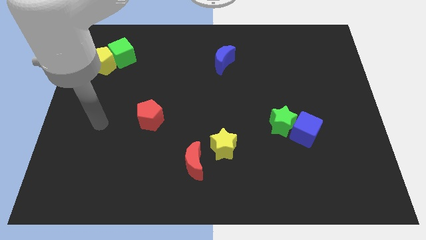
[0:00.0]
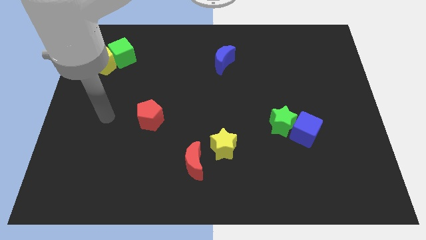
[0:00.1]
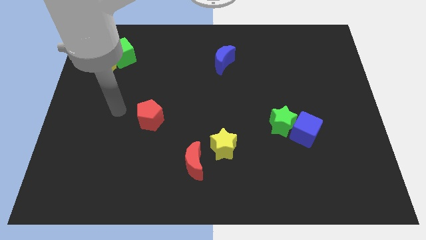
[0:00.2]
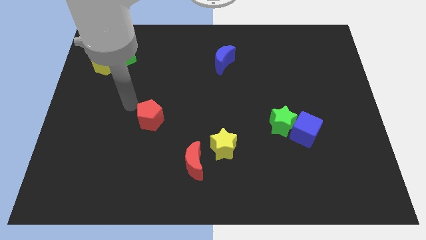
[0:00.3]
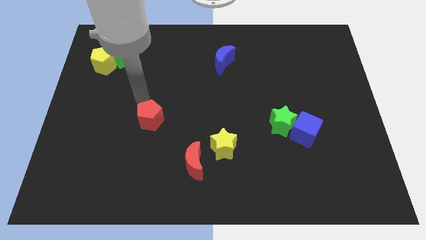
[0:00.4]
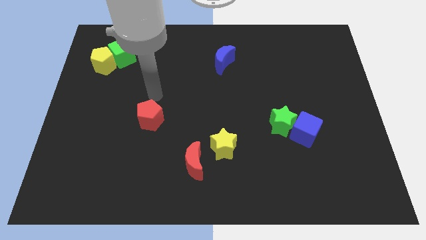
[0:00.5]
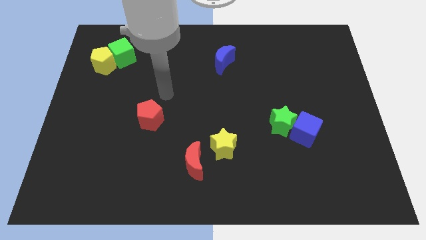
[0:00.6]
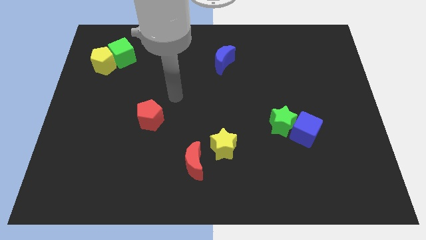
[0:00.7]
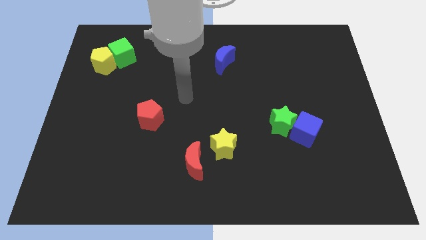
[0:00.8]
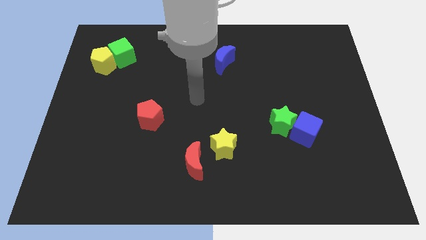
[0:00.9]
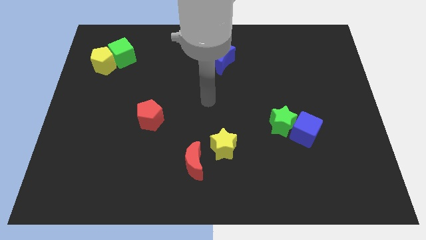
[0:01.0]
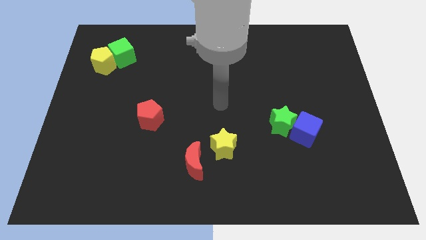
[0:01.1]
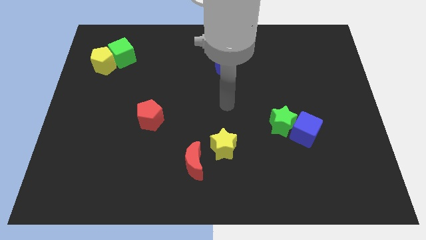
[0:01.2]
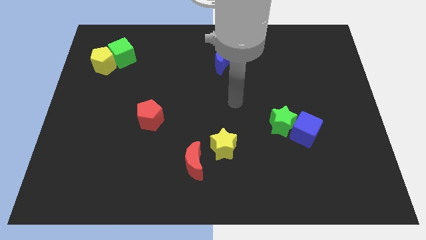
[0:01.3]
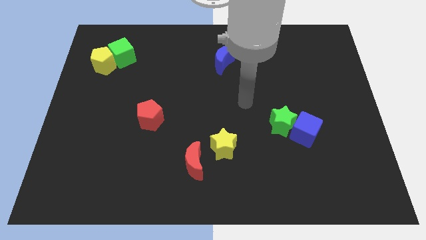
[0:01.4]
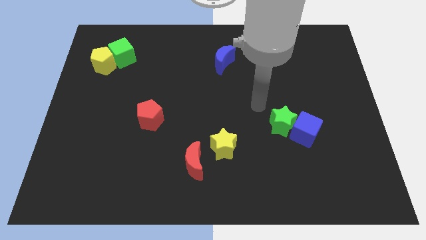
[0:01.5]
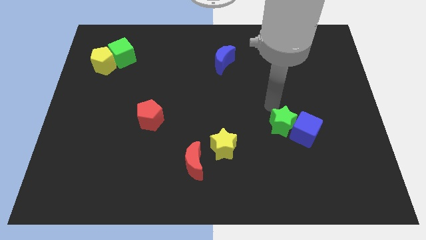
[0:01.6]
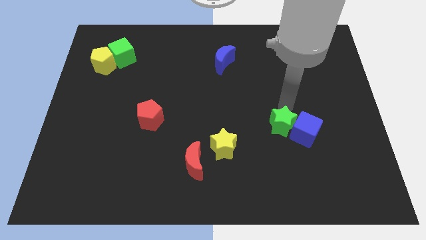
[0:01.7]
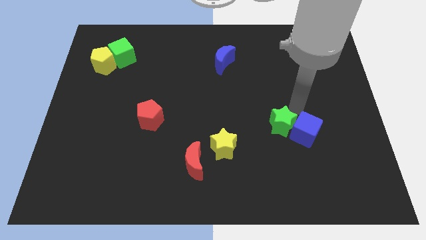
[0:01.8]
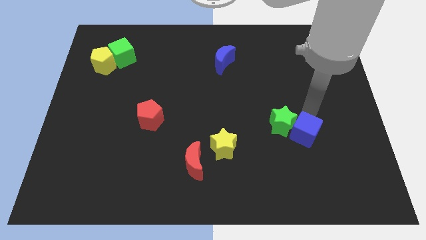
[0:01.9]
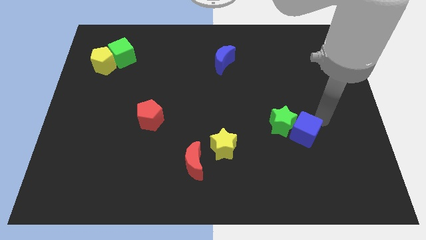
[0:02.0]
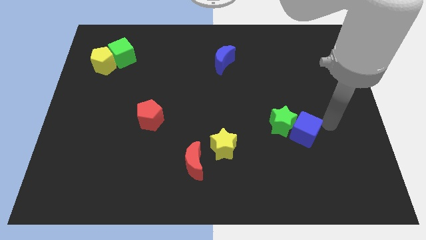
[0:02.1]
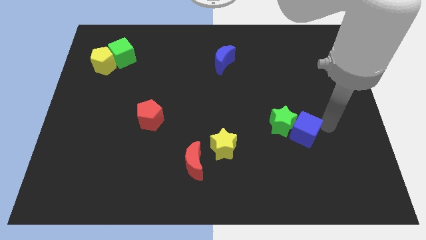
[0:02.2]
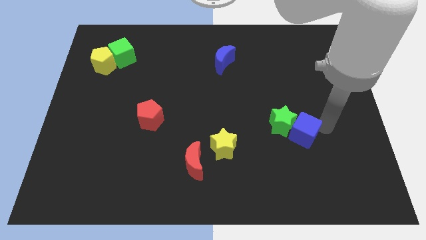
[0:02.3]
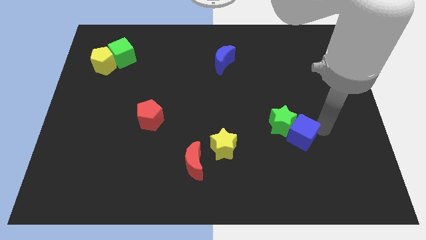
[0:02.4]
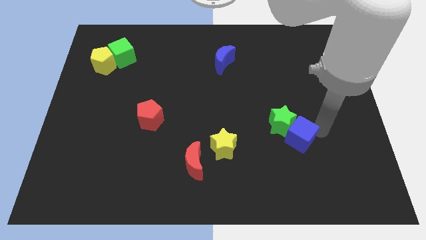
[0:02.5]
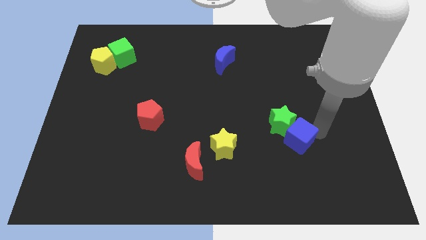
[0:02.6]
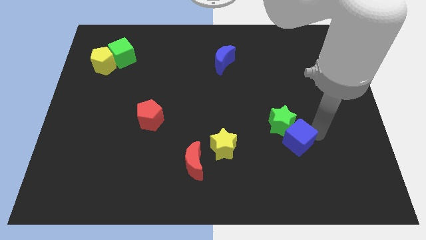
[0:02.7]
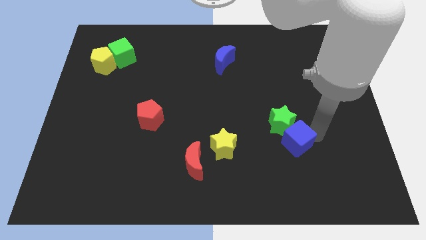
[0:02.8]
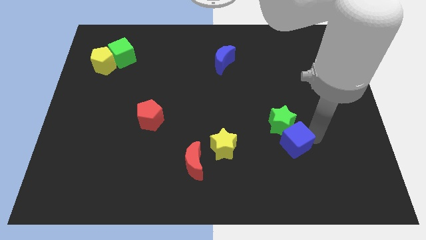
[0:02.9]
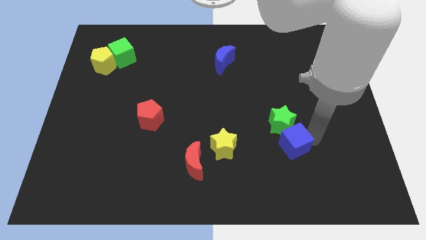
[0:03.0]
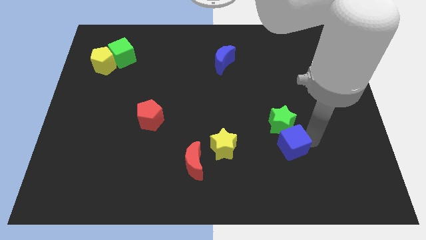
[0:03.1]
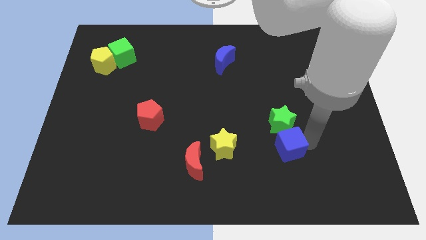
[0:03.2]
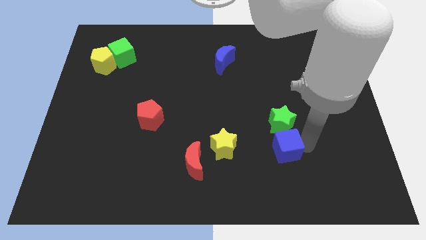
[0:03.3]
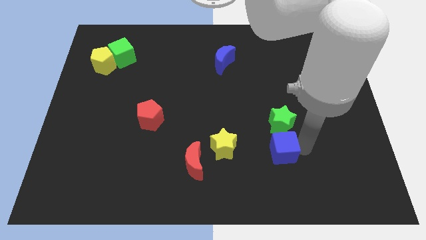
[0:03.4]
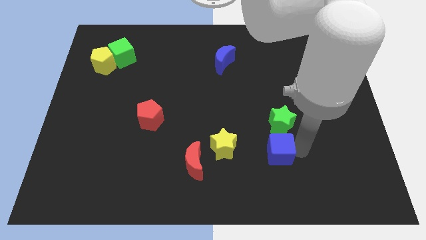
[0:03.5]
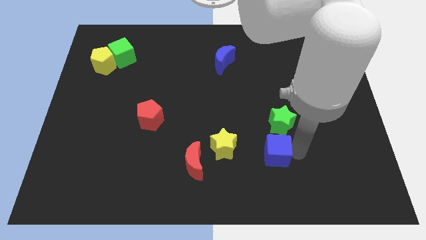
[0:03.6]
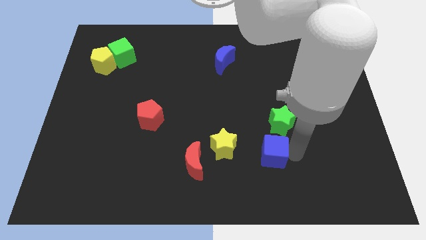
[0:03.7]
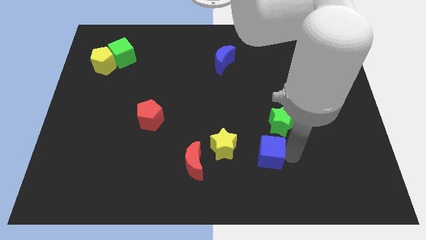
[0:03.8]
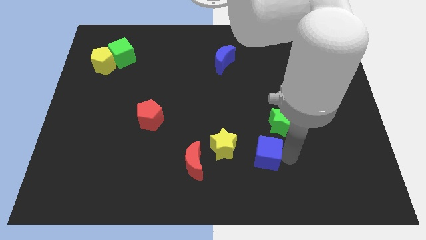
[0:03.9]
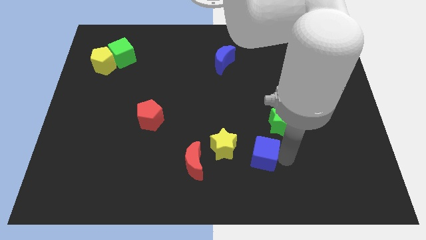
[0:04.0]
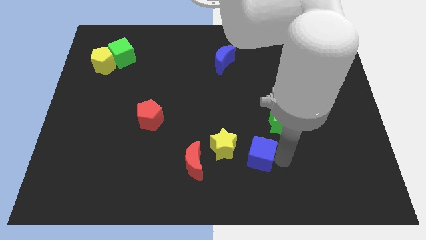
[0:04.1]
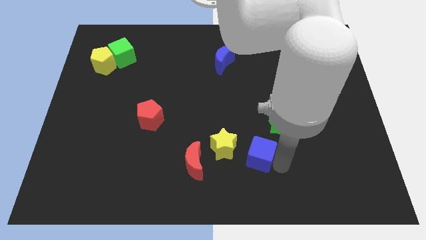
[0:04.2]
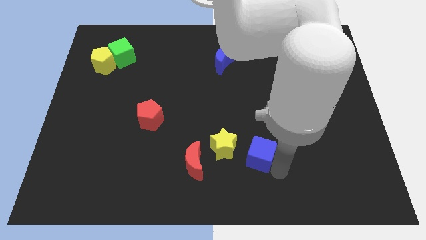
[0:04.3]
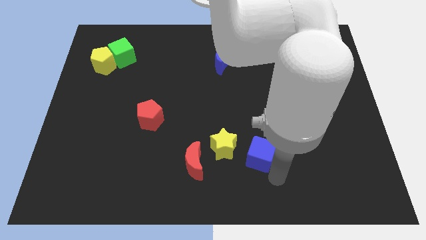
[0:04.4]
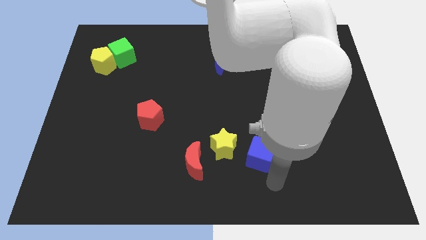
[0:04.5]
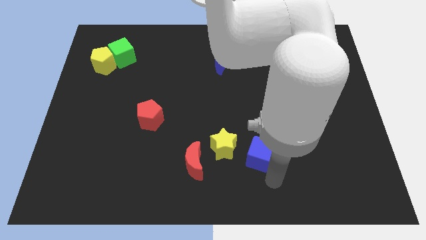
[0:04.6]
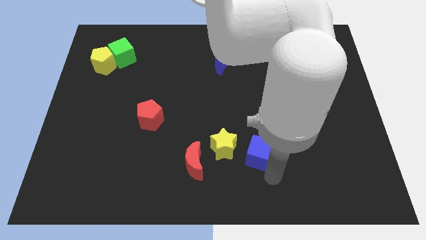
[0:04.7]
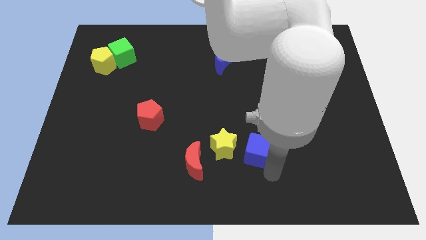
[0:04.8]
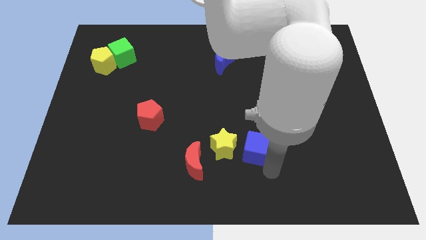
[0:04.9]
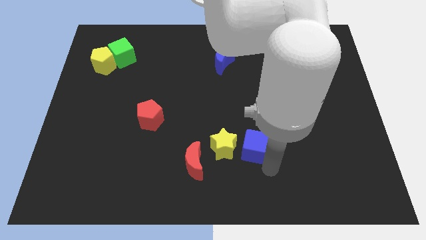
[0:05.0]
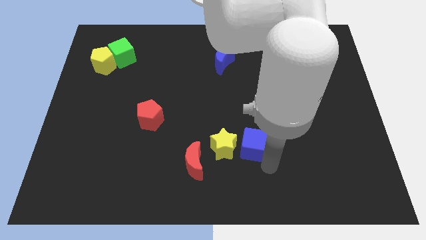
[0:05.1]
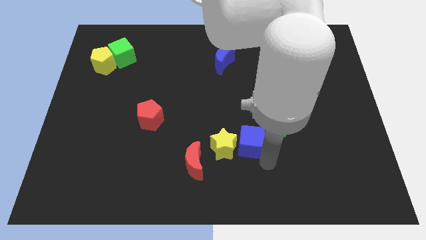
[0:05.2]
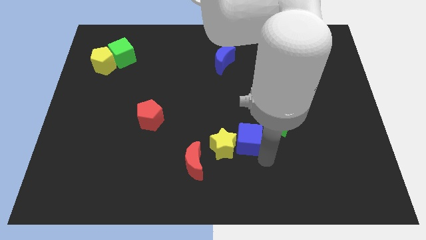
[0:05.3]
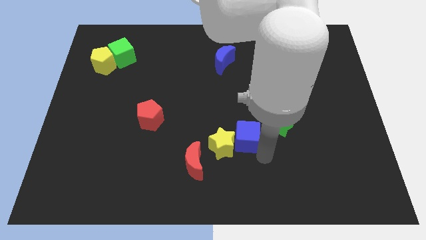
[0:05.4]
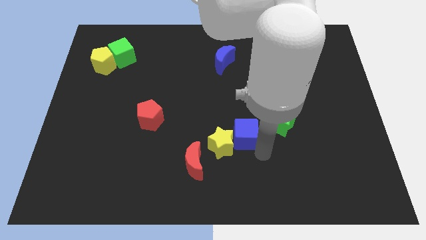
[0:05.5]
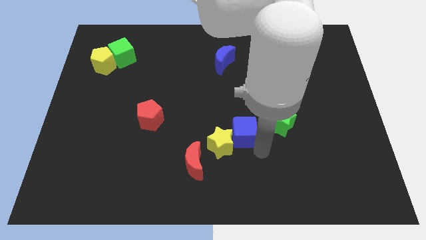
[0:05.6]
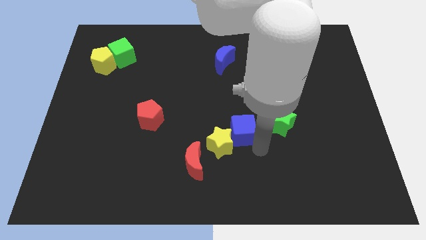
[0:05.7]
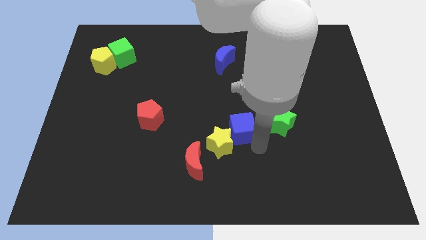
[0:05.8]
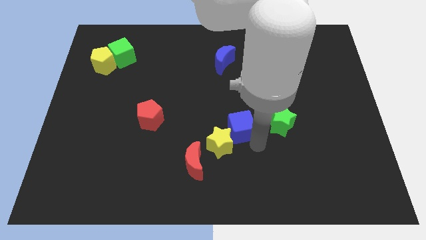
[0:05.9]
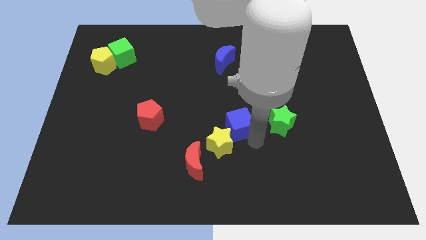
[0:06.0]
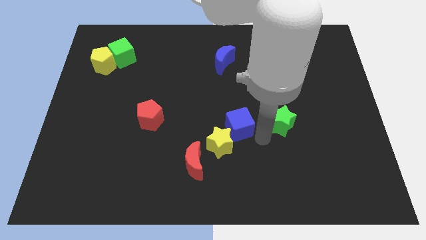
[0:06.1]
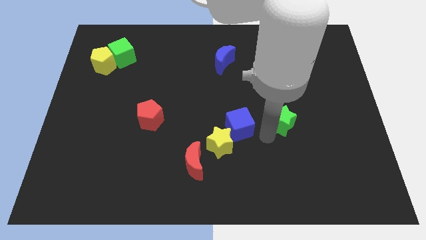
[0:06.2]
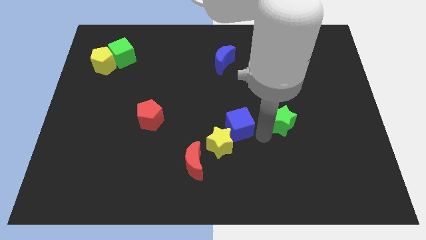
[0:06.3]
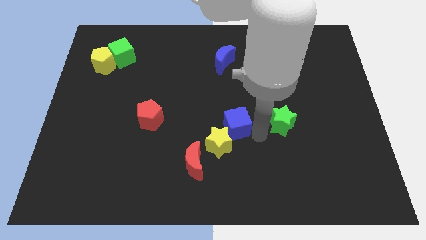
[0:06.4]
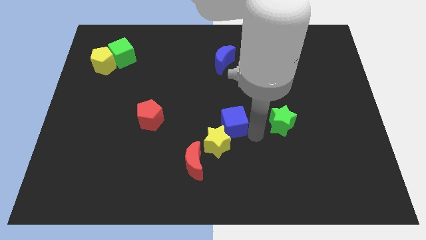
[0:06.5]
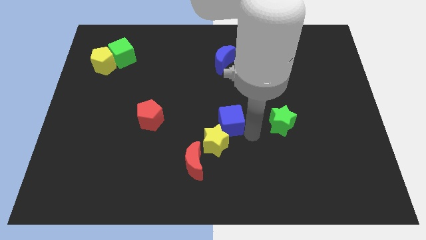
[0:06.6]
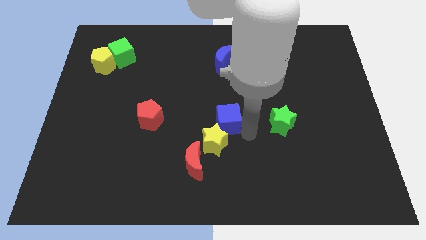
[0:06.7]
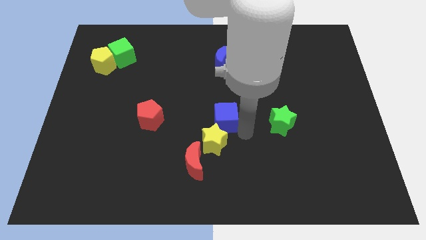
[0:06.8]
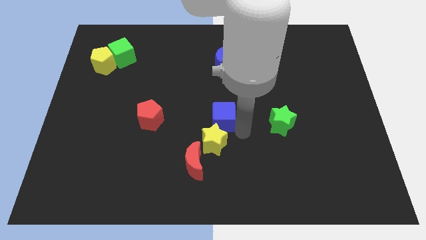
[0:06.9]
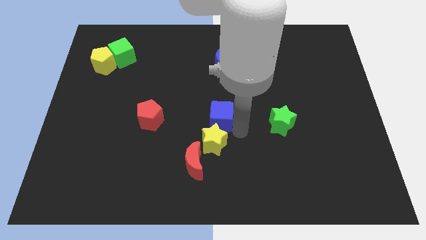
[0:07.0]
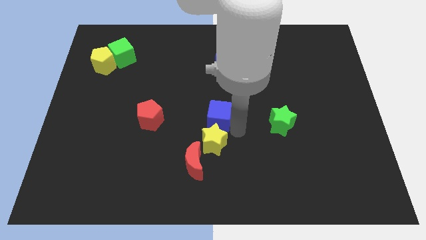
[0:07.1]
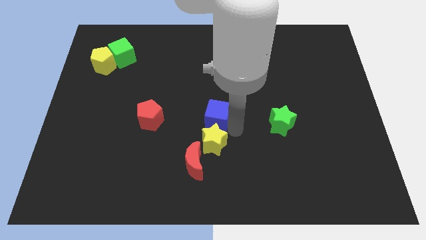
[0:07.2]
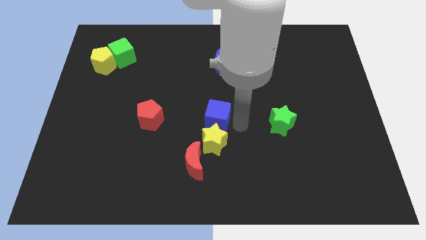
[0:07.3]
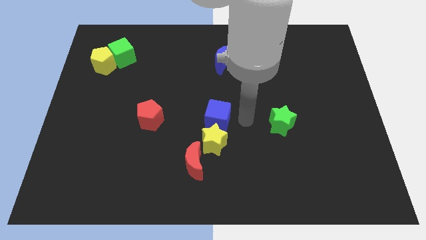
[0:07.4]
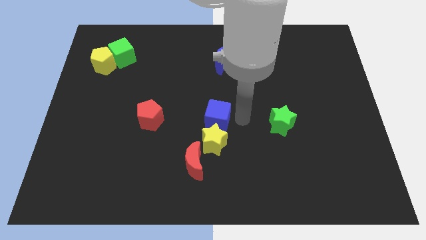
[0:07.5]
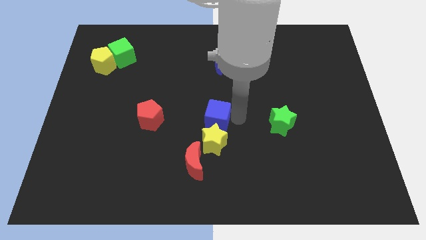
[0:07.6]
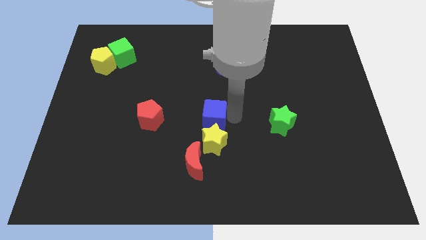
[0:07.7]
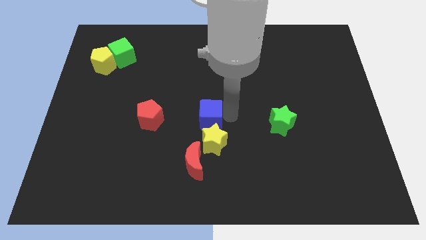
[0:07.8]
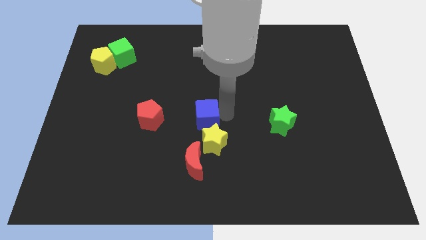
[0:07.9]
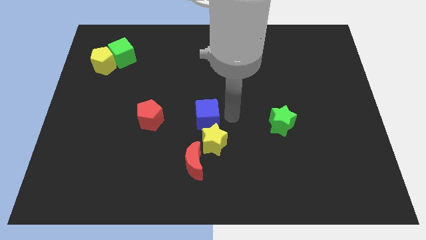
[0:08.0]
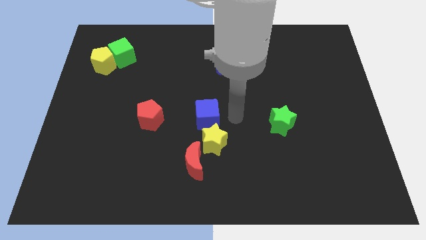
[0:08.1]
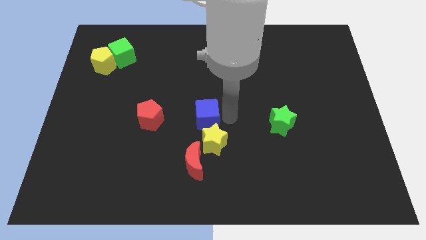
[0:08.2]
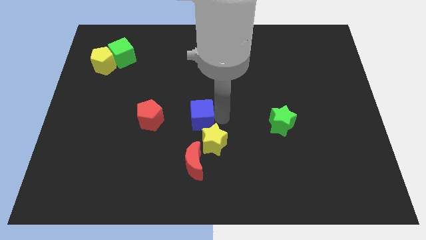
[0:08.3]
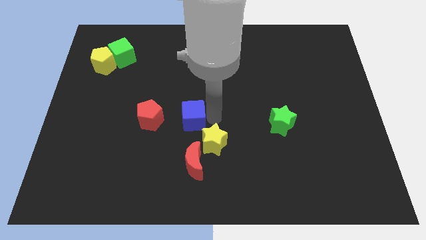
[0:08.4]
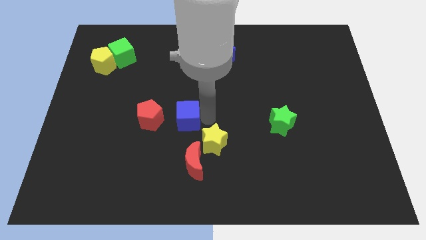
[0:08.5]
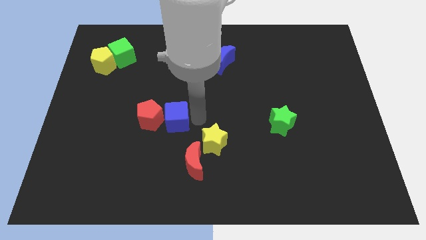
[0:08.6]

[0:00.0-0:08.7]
push the blue cube close to the red pentagon
